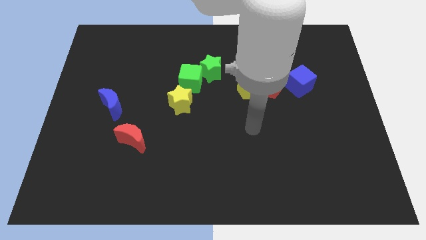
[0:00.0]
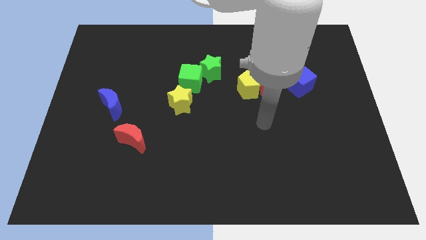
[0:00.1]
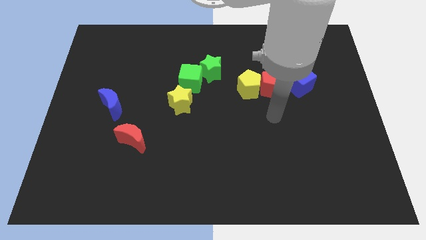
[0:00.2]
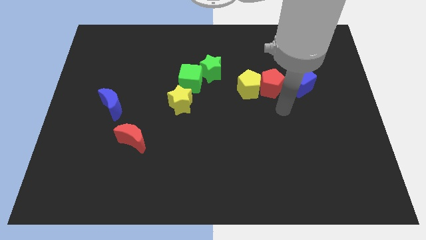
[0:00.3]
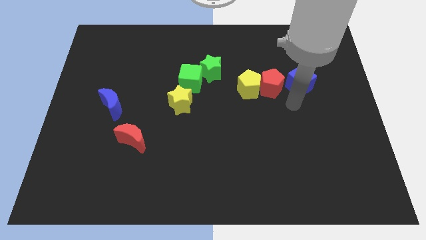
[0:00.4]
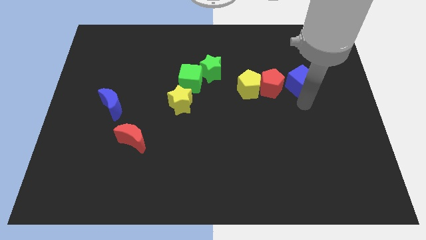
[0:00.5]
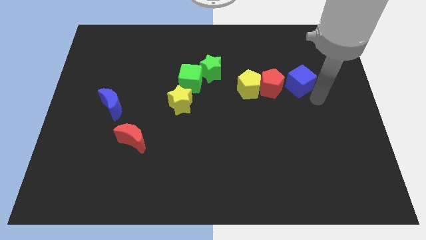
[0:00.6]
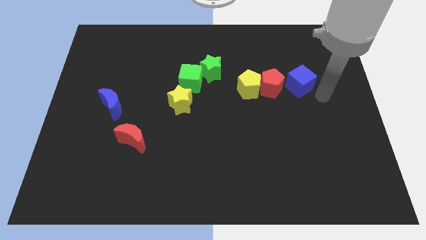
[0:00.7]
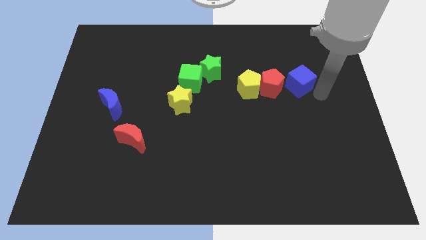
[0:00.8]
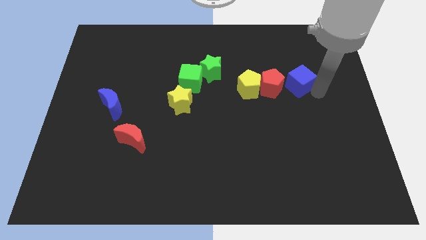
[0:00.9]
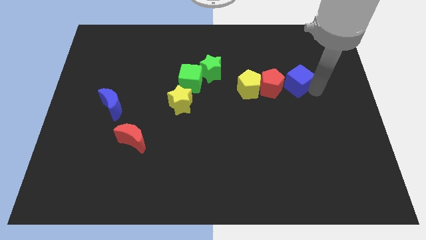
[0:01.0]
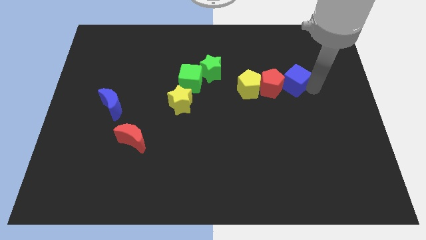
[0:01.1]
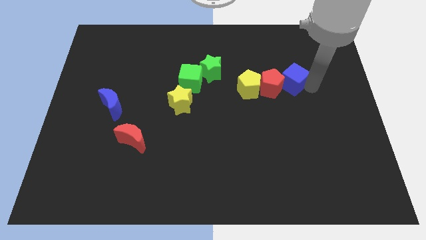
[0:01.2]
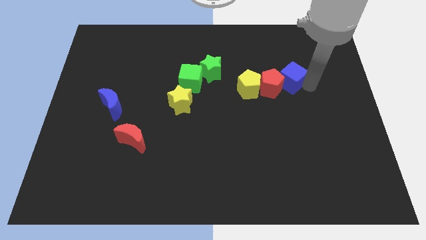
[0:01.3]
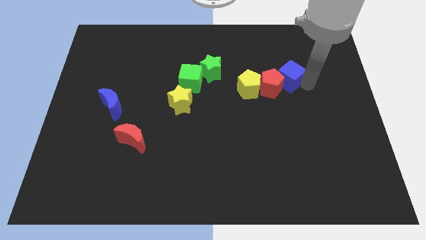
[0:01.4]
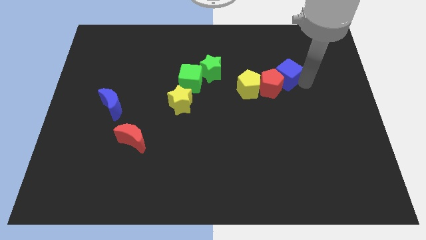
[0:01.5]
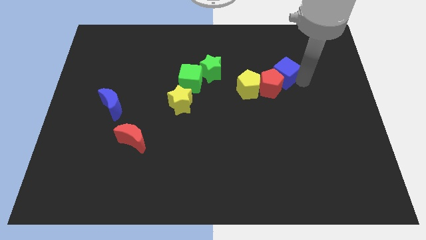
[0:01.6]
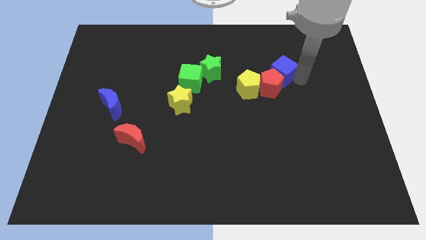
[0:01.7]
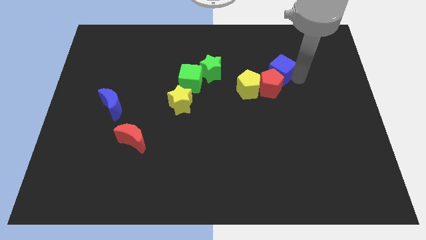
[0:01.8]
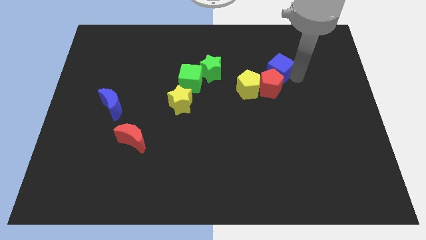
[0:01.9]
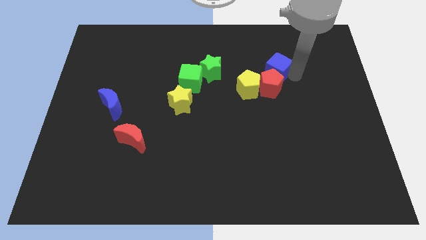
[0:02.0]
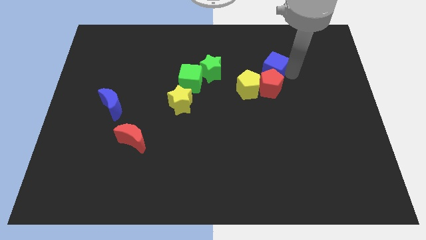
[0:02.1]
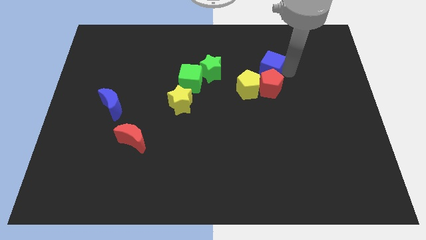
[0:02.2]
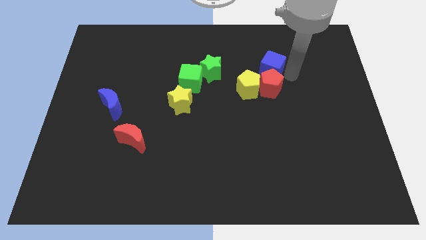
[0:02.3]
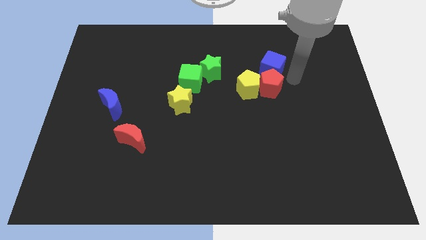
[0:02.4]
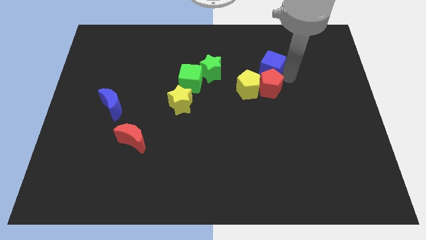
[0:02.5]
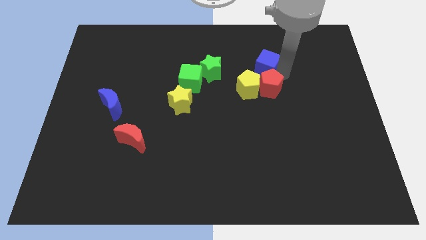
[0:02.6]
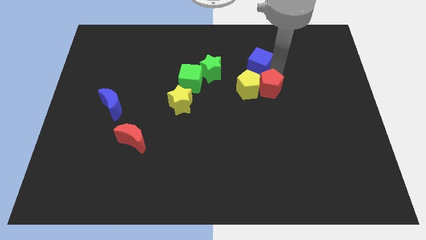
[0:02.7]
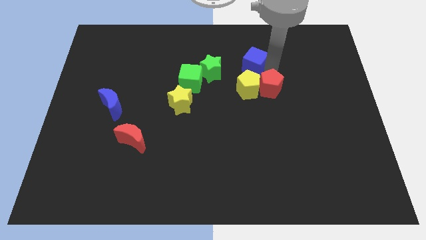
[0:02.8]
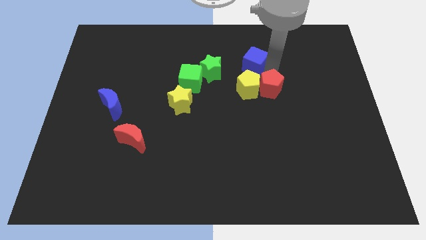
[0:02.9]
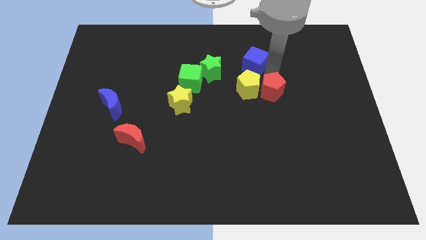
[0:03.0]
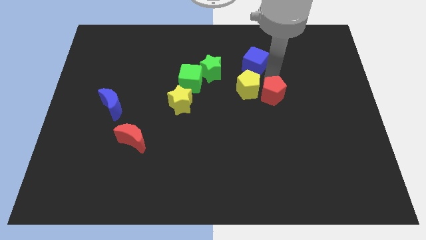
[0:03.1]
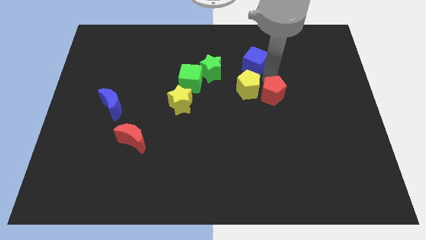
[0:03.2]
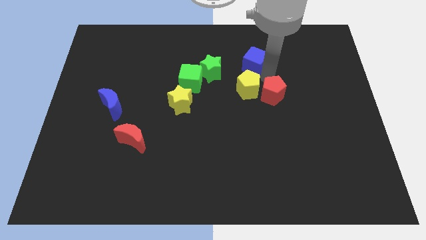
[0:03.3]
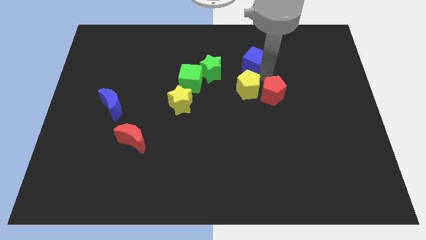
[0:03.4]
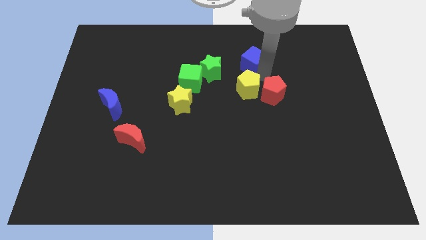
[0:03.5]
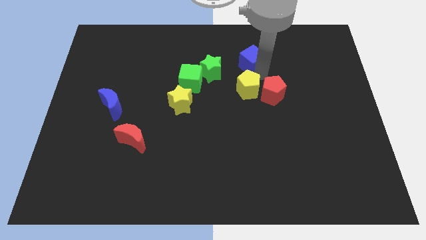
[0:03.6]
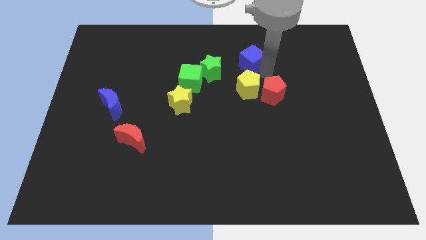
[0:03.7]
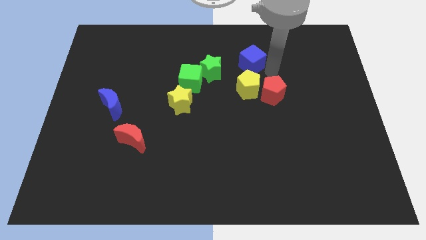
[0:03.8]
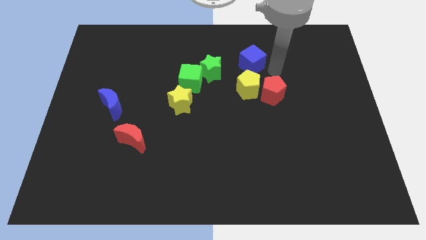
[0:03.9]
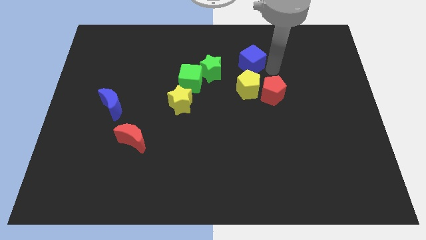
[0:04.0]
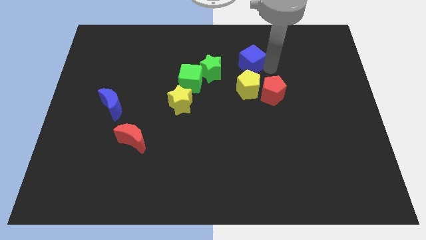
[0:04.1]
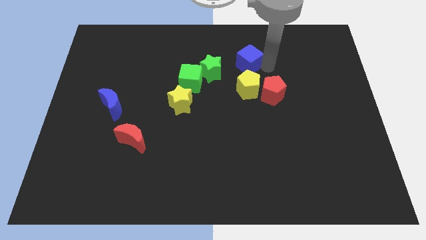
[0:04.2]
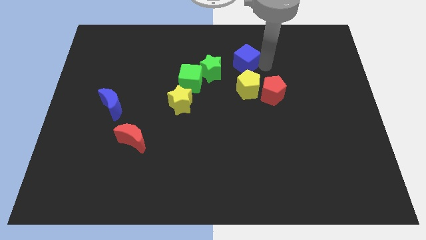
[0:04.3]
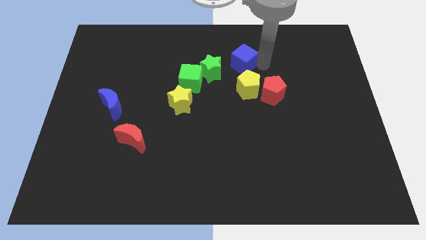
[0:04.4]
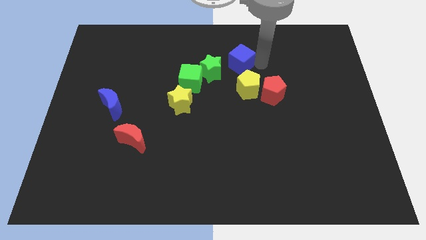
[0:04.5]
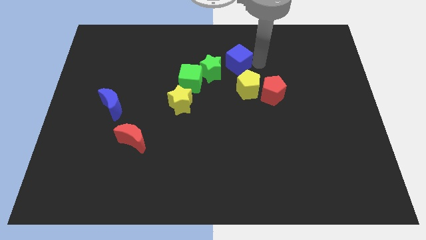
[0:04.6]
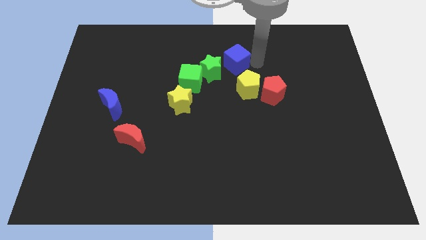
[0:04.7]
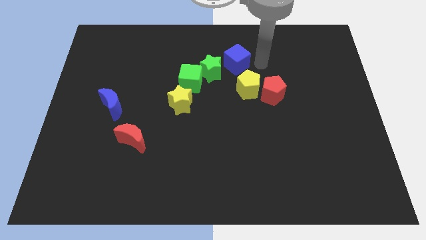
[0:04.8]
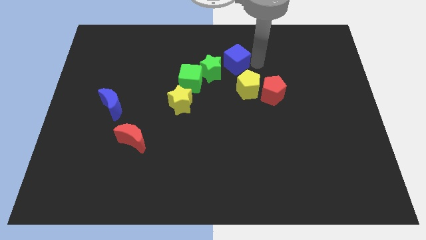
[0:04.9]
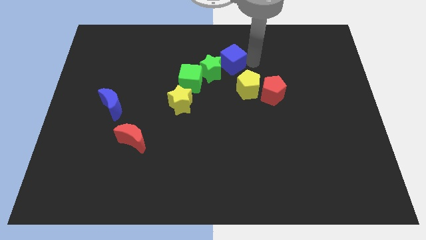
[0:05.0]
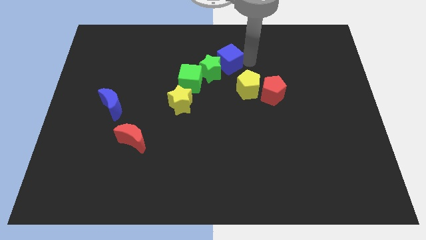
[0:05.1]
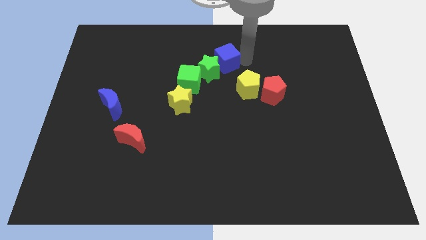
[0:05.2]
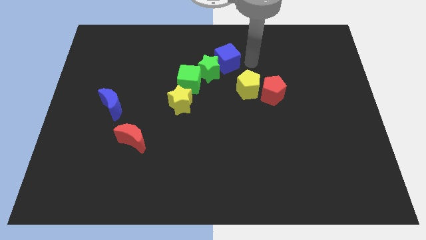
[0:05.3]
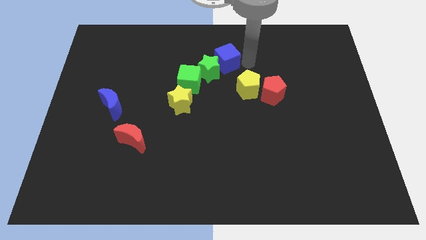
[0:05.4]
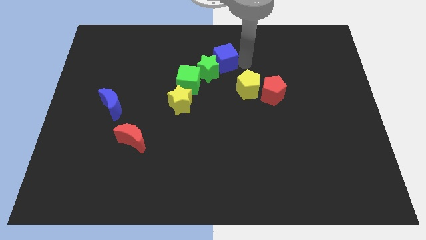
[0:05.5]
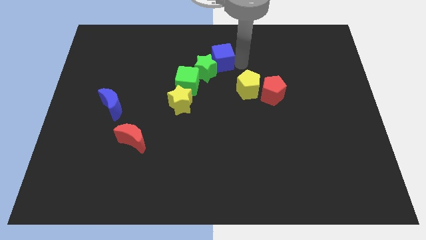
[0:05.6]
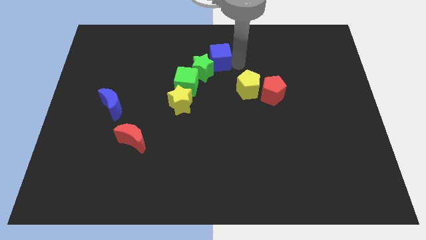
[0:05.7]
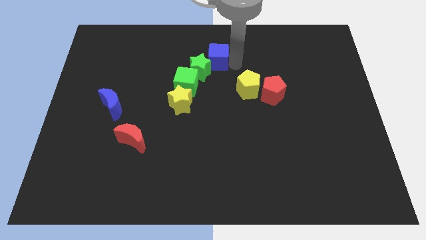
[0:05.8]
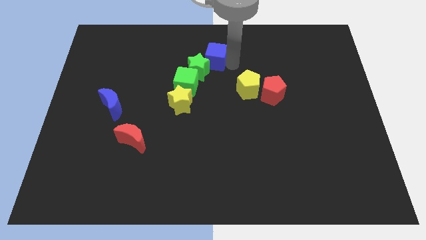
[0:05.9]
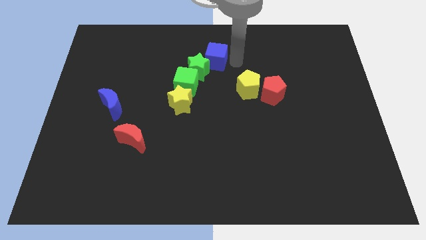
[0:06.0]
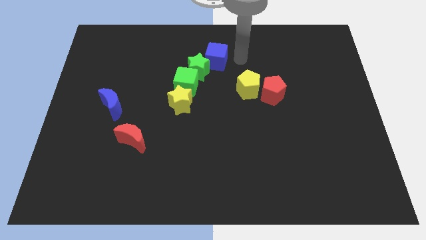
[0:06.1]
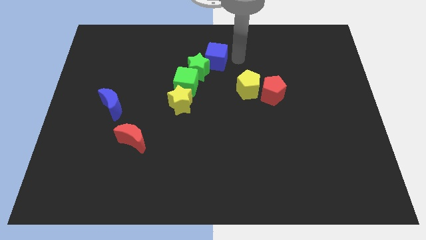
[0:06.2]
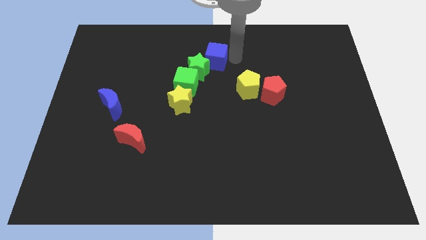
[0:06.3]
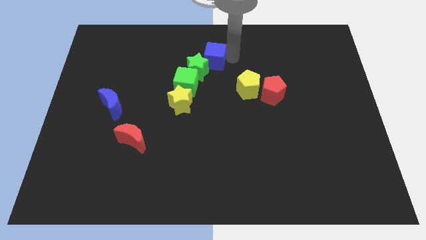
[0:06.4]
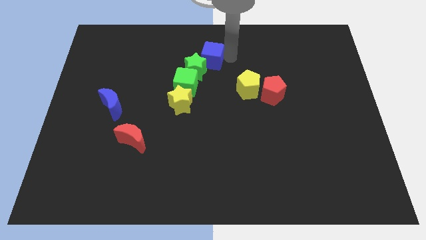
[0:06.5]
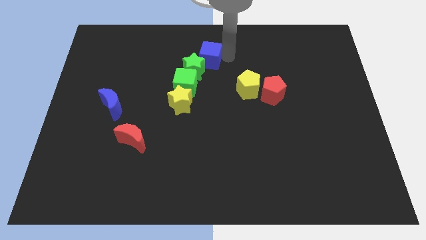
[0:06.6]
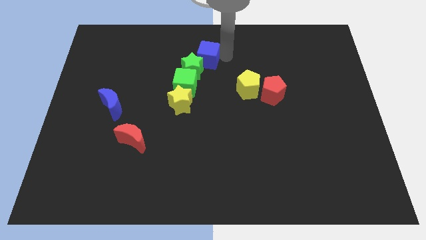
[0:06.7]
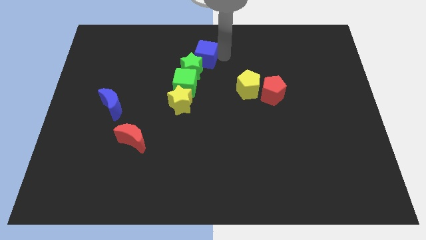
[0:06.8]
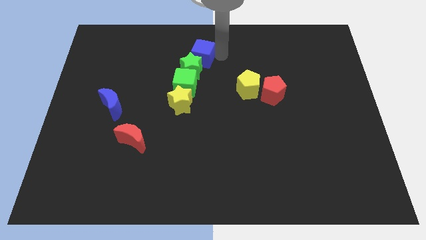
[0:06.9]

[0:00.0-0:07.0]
slide the blue cube left

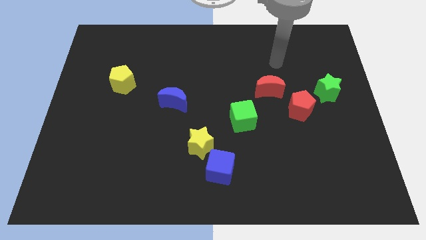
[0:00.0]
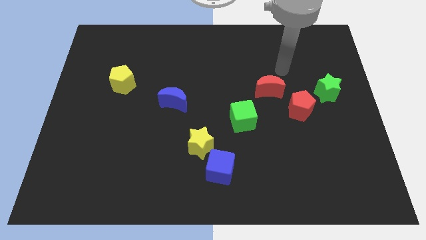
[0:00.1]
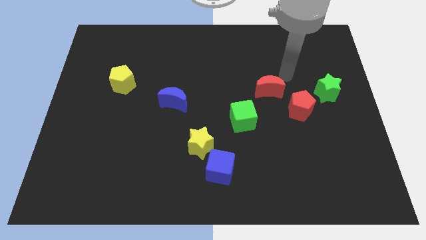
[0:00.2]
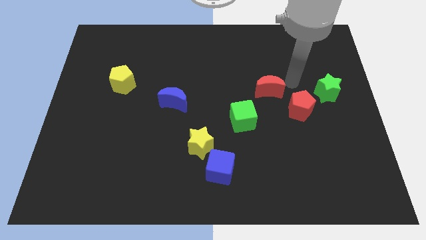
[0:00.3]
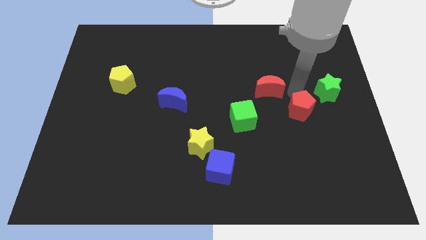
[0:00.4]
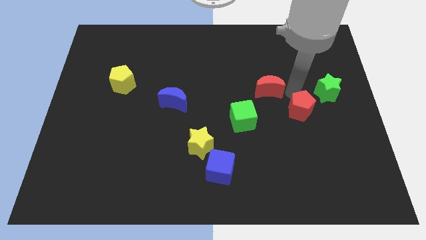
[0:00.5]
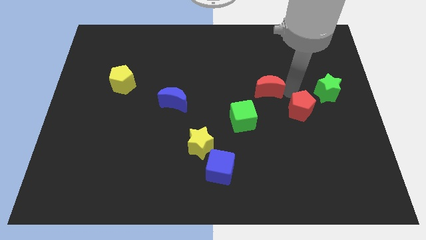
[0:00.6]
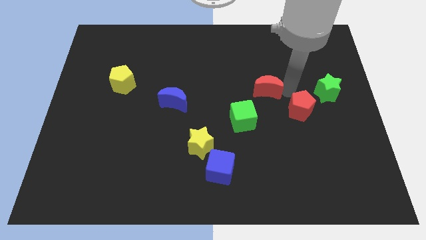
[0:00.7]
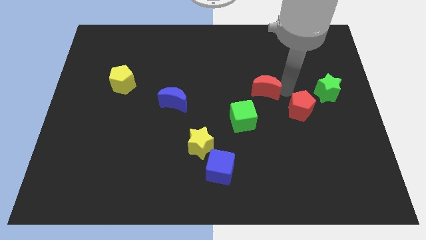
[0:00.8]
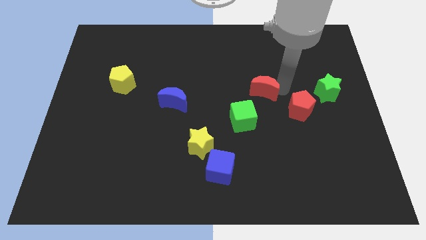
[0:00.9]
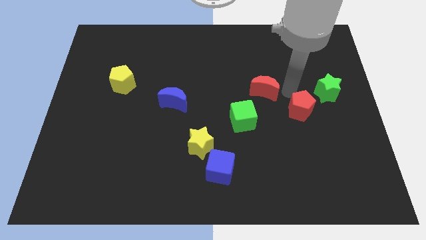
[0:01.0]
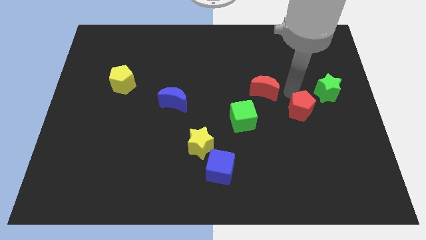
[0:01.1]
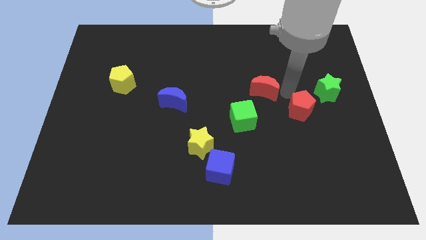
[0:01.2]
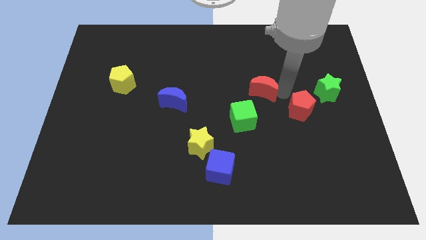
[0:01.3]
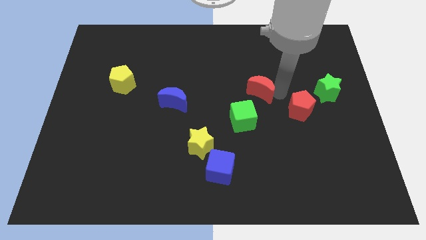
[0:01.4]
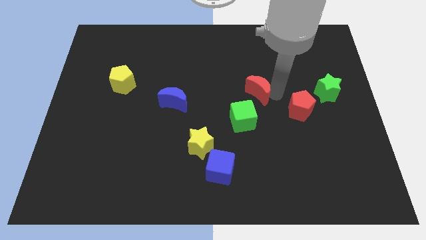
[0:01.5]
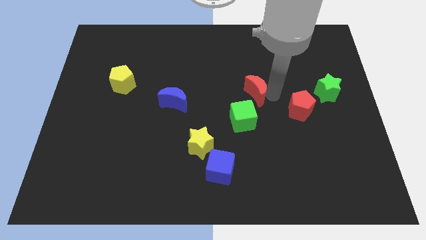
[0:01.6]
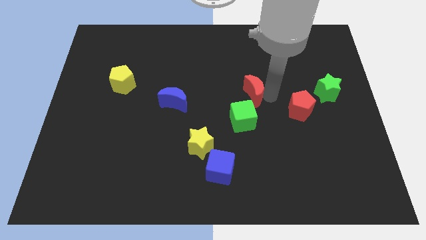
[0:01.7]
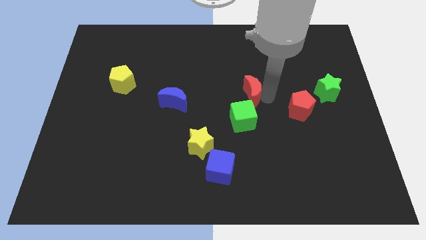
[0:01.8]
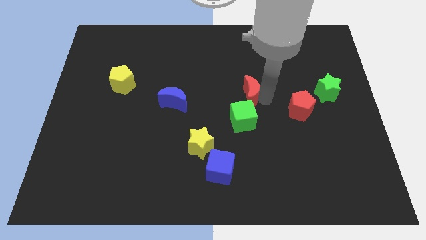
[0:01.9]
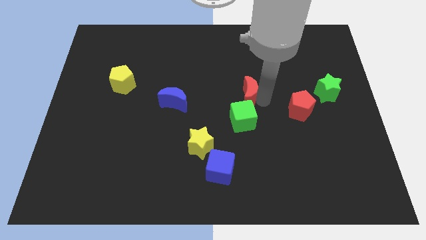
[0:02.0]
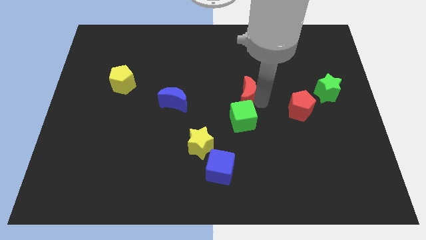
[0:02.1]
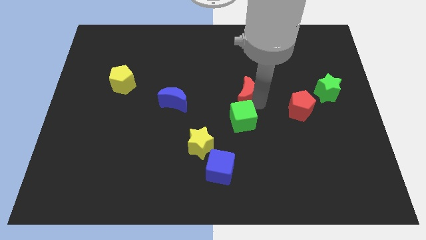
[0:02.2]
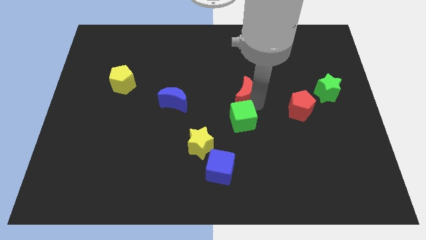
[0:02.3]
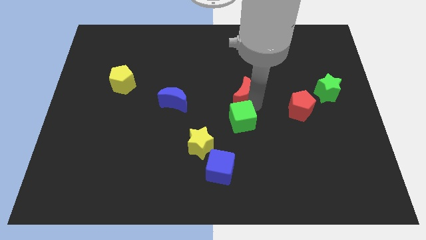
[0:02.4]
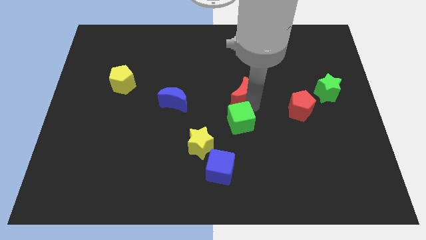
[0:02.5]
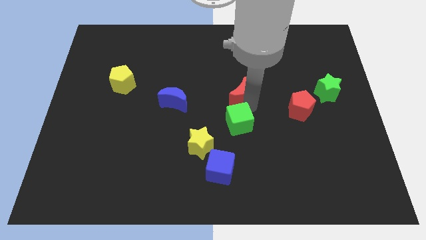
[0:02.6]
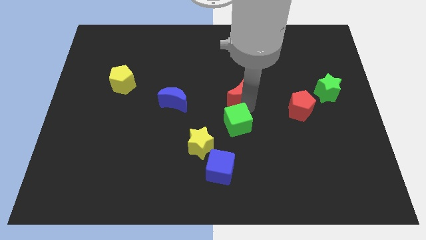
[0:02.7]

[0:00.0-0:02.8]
move the red moon a bit to the left
